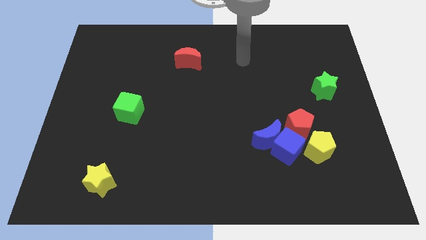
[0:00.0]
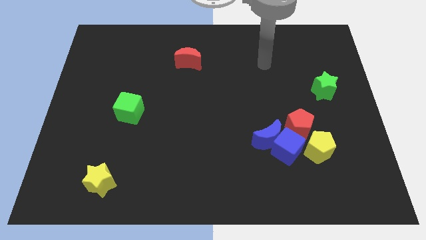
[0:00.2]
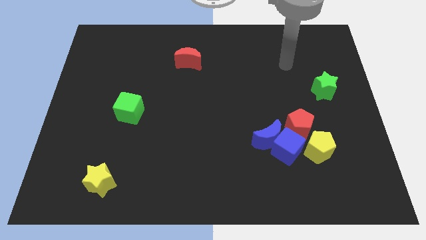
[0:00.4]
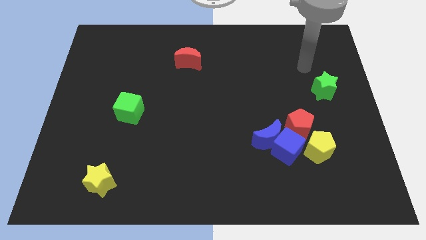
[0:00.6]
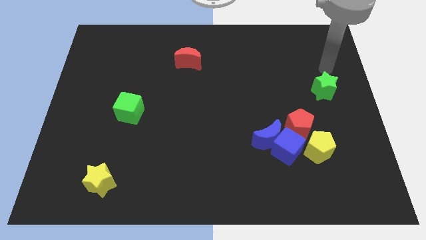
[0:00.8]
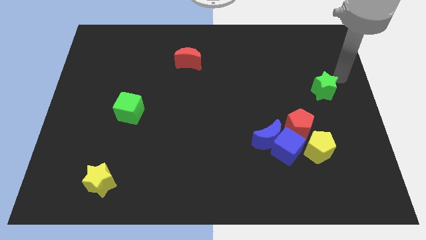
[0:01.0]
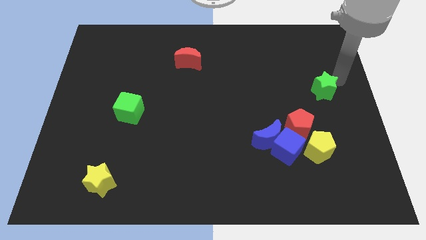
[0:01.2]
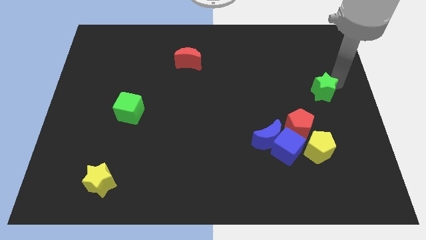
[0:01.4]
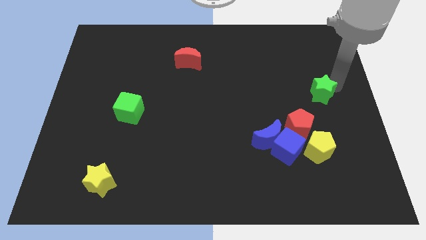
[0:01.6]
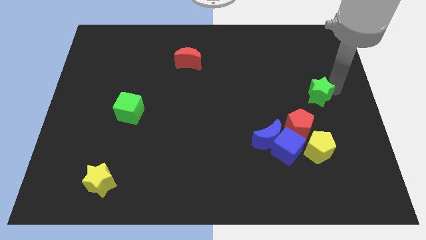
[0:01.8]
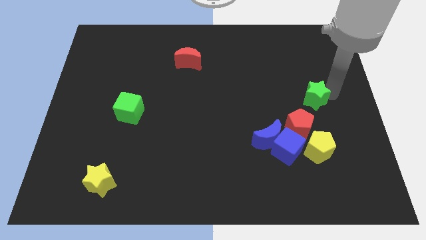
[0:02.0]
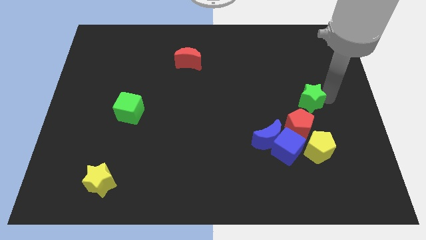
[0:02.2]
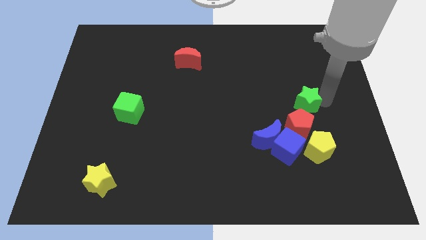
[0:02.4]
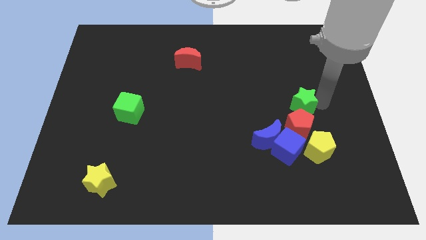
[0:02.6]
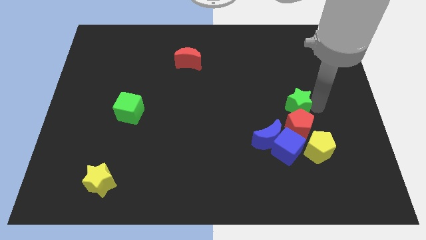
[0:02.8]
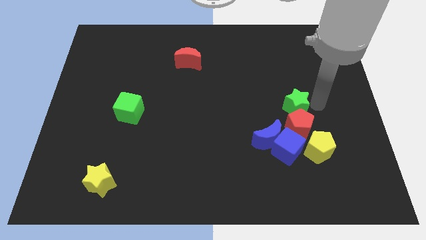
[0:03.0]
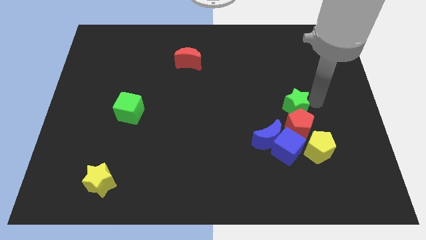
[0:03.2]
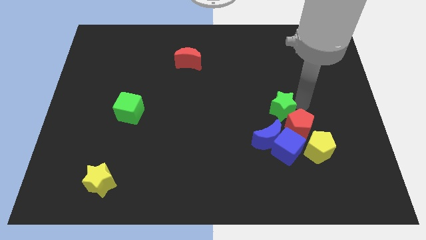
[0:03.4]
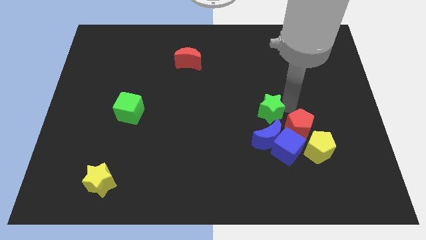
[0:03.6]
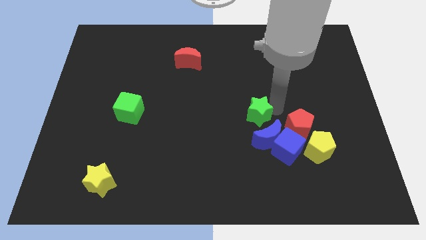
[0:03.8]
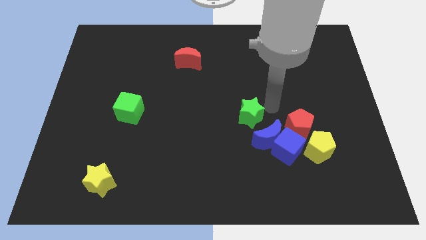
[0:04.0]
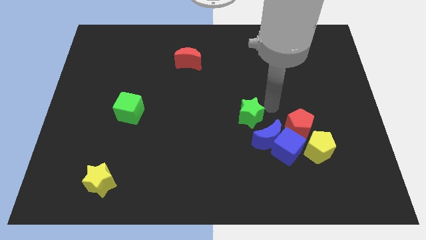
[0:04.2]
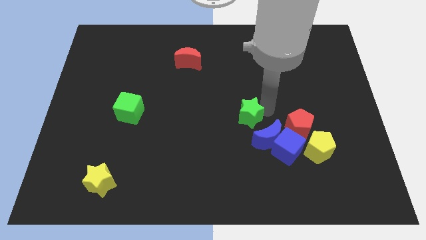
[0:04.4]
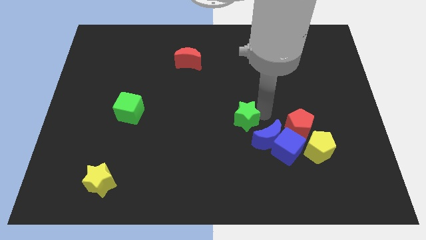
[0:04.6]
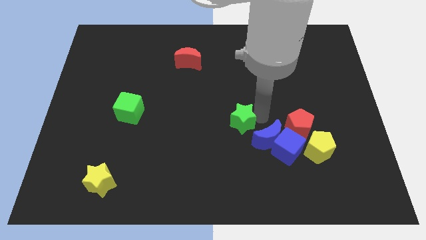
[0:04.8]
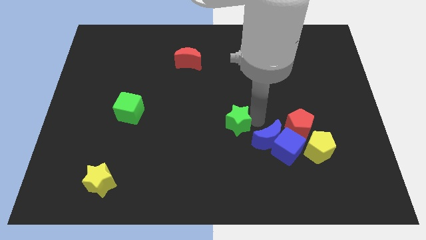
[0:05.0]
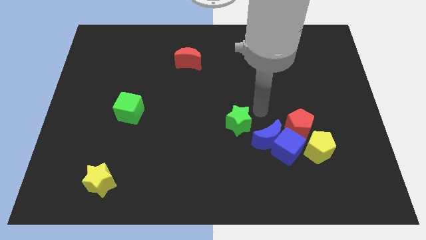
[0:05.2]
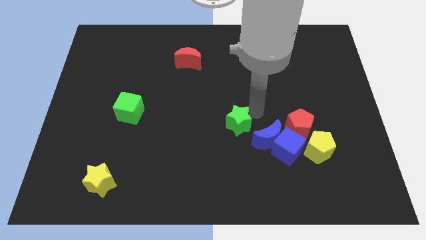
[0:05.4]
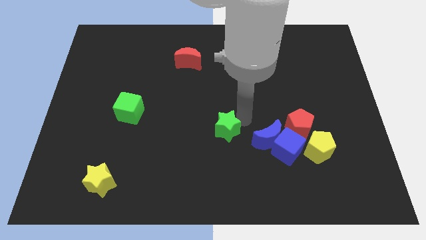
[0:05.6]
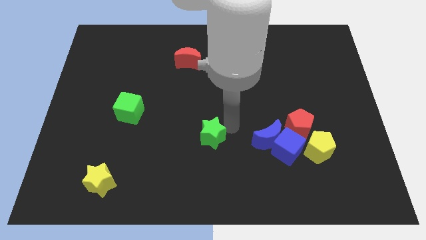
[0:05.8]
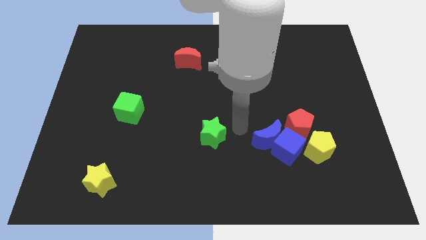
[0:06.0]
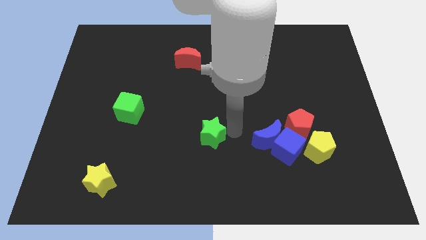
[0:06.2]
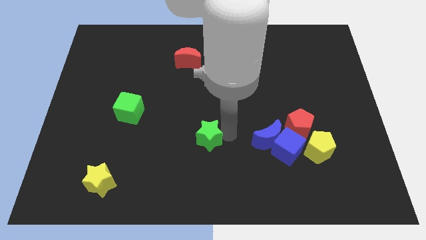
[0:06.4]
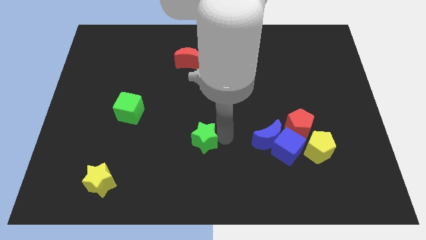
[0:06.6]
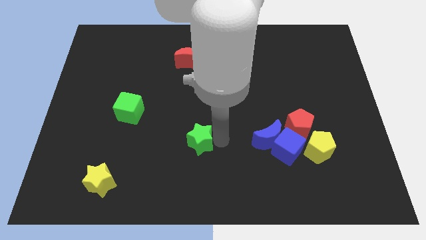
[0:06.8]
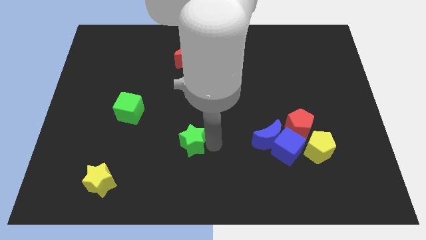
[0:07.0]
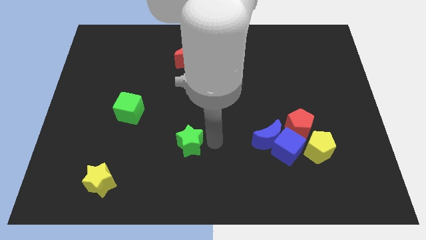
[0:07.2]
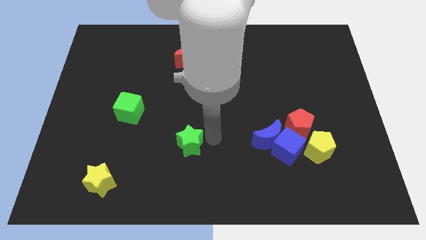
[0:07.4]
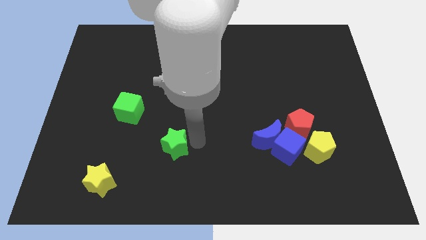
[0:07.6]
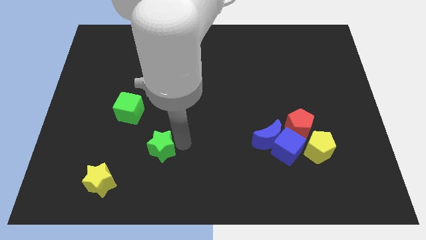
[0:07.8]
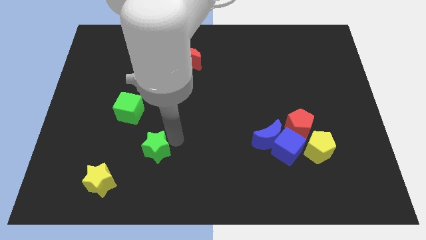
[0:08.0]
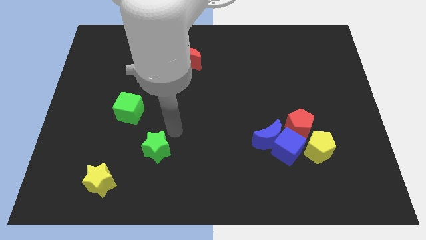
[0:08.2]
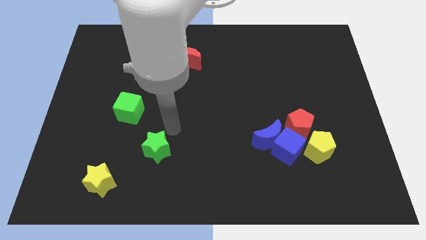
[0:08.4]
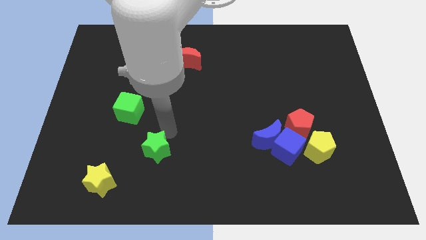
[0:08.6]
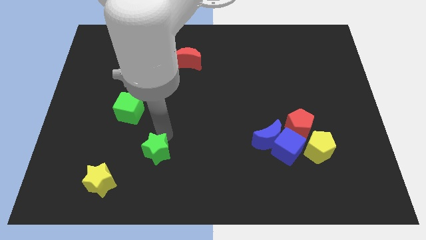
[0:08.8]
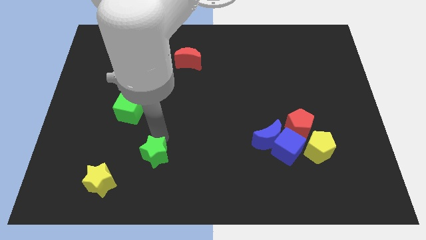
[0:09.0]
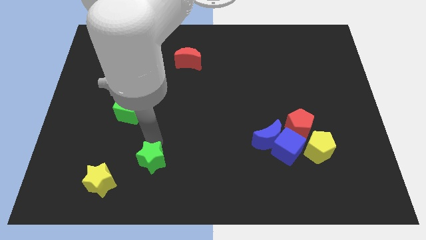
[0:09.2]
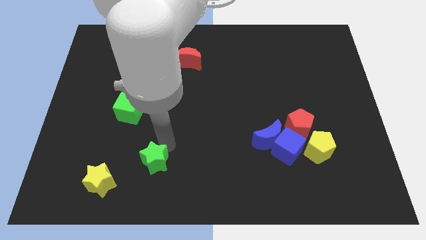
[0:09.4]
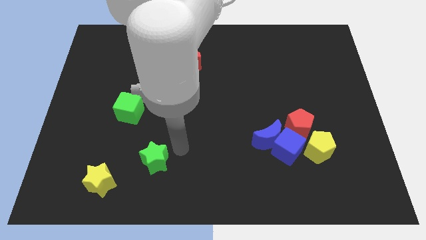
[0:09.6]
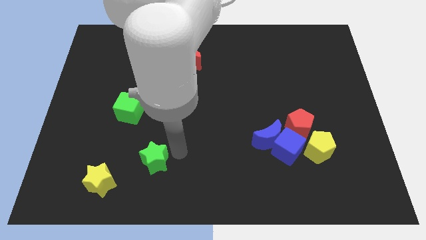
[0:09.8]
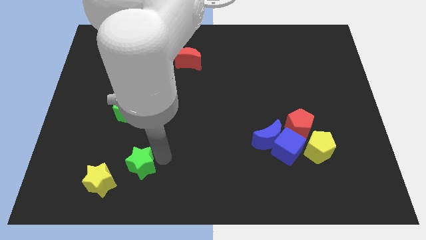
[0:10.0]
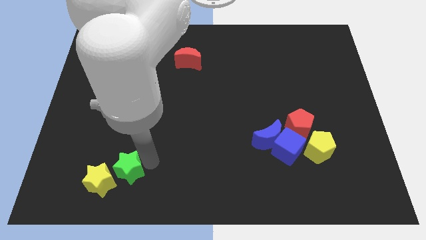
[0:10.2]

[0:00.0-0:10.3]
slide the green star next to the yellow star

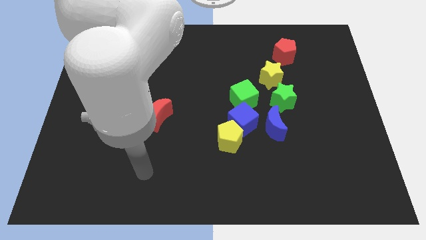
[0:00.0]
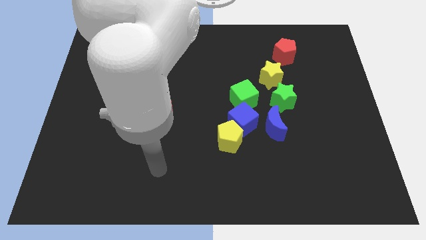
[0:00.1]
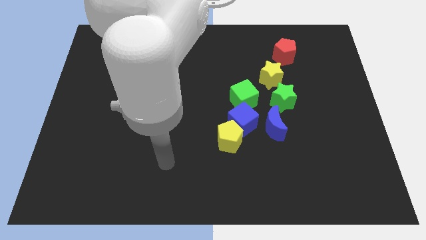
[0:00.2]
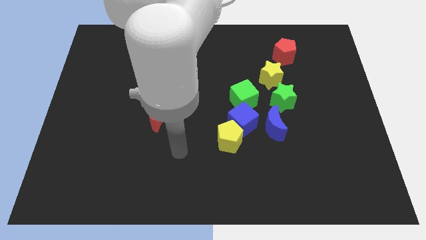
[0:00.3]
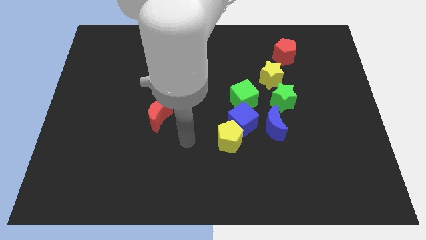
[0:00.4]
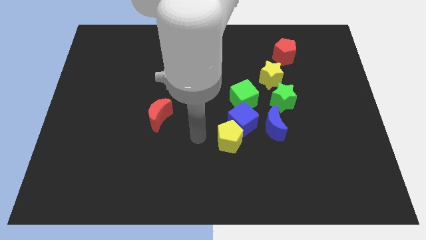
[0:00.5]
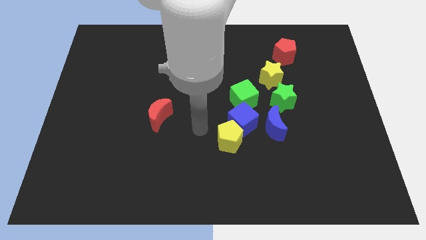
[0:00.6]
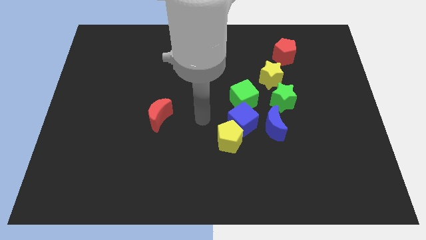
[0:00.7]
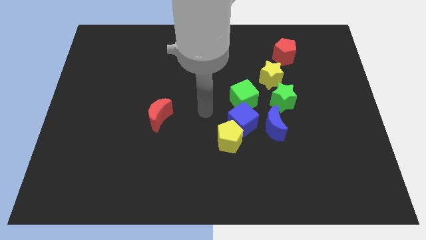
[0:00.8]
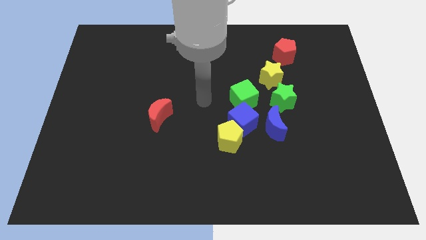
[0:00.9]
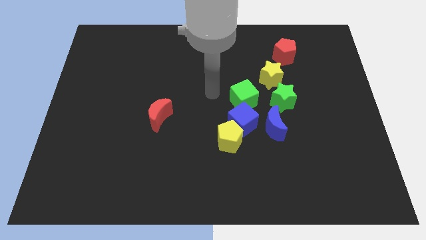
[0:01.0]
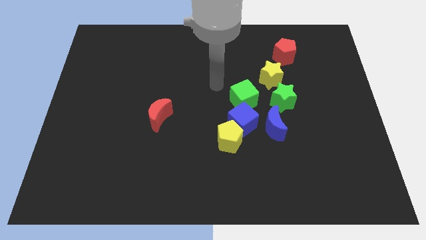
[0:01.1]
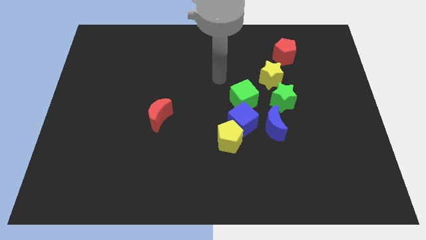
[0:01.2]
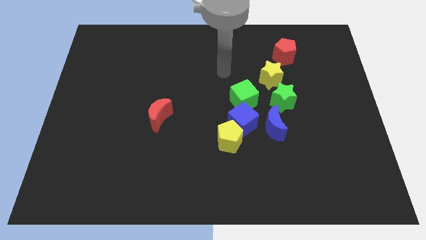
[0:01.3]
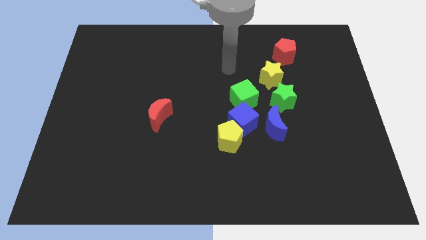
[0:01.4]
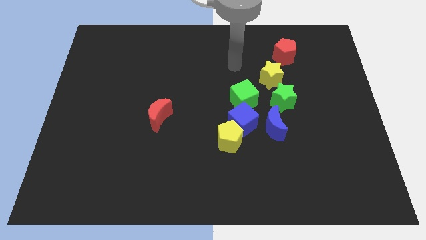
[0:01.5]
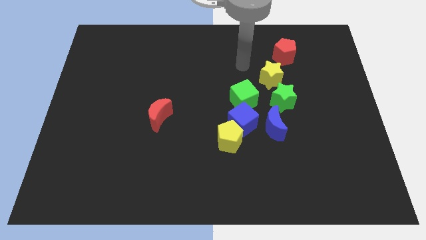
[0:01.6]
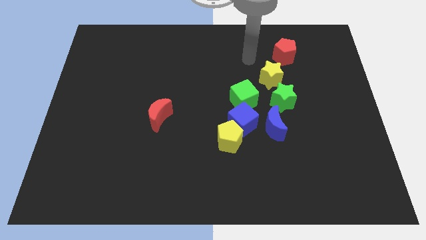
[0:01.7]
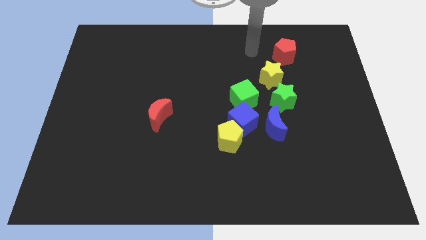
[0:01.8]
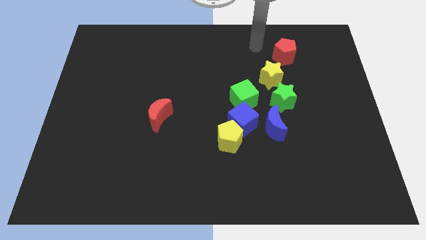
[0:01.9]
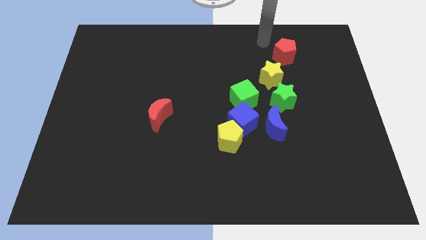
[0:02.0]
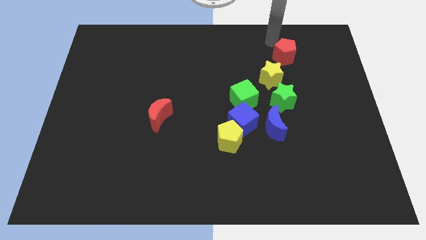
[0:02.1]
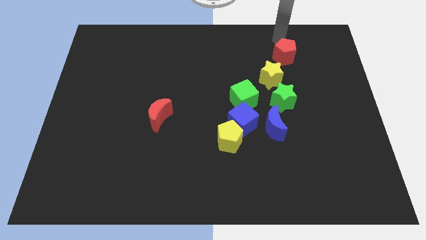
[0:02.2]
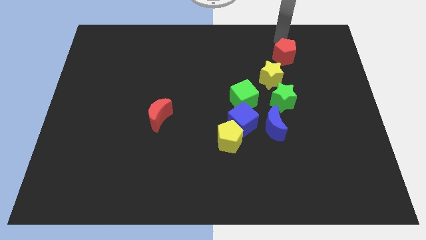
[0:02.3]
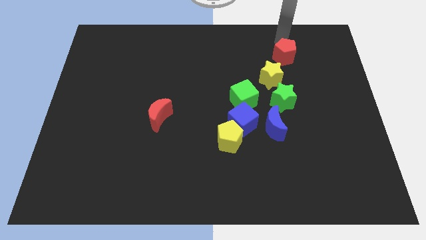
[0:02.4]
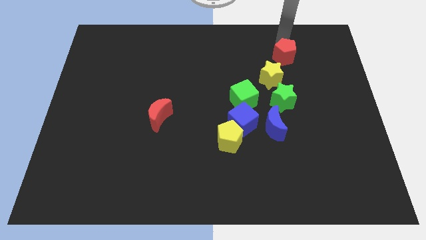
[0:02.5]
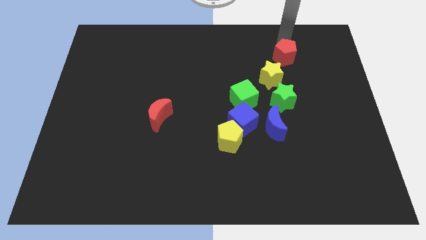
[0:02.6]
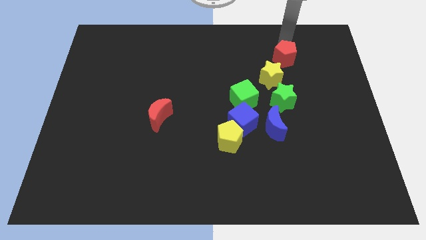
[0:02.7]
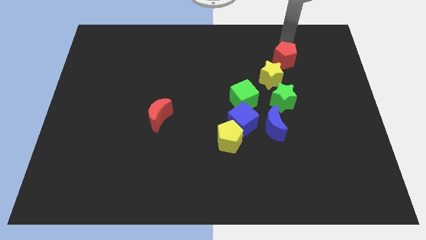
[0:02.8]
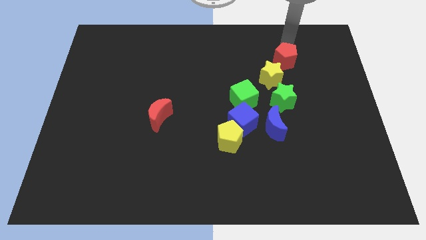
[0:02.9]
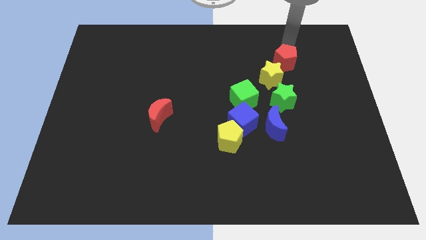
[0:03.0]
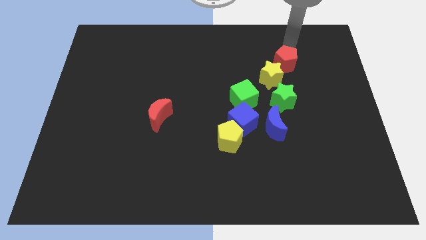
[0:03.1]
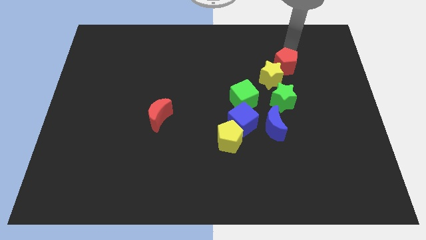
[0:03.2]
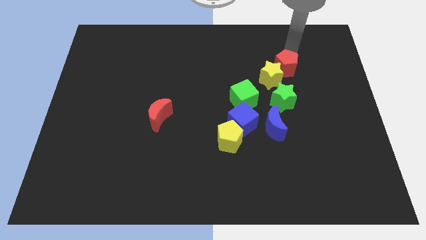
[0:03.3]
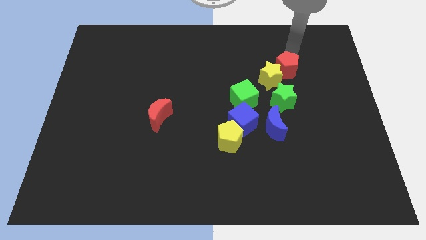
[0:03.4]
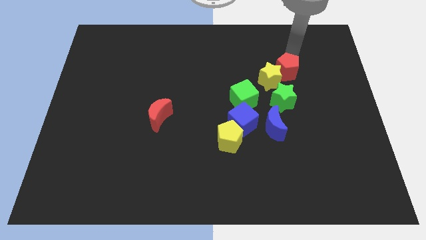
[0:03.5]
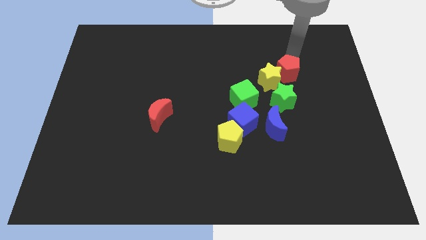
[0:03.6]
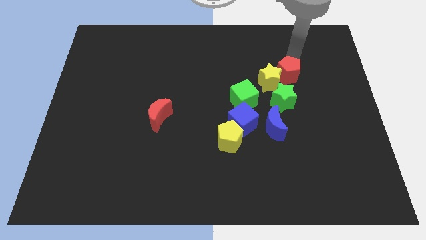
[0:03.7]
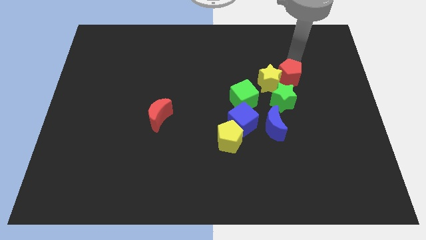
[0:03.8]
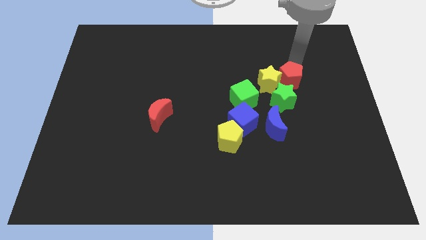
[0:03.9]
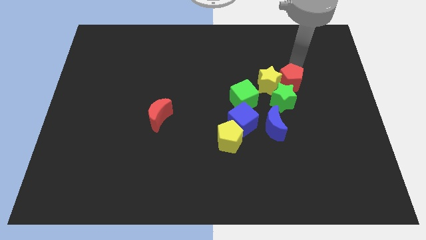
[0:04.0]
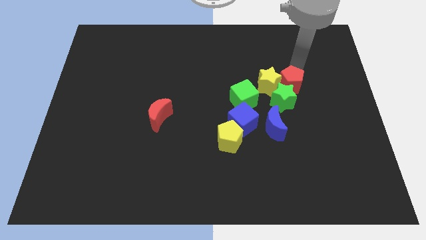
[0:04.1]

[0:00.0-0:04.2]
push the red pentagon next to the green star
